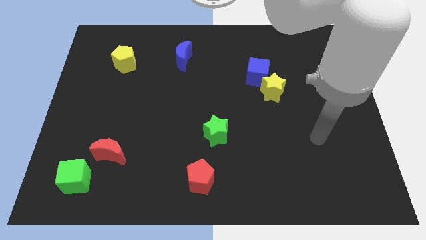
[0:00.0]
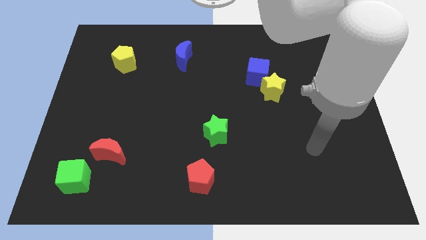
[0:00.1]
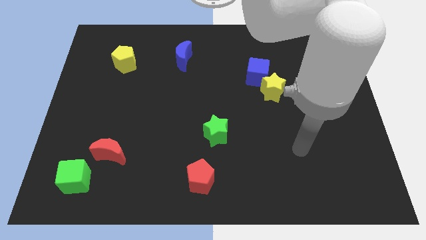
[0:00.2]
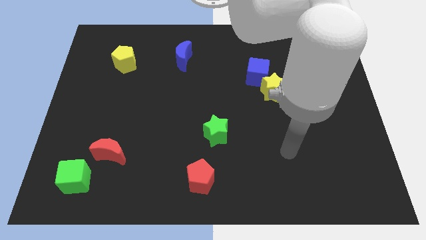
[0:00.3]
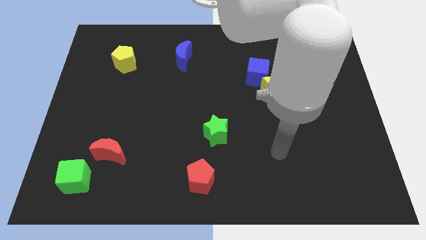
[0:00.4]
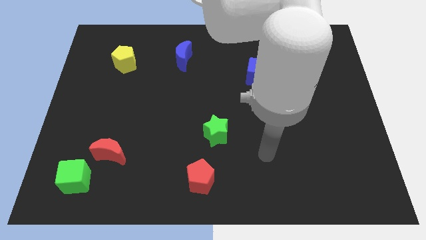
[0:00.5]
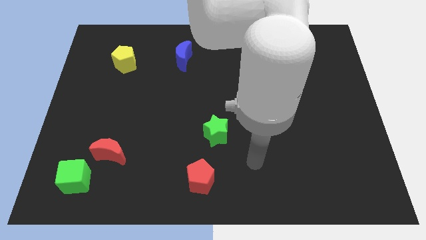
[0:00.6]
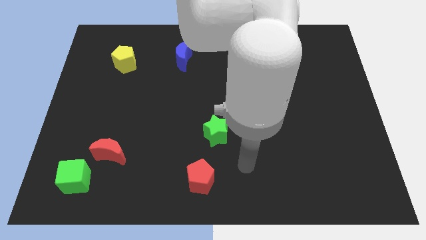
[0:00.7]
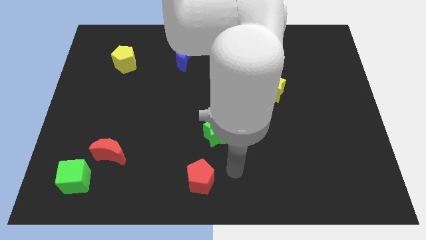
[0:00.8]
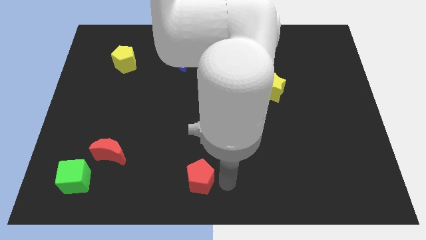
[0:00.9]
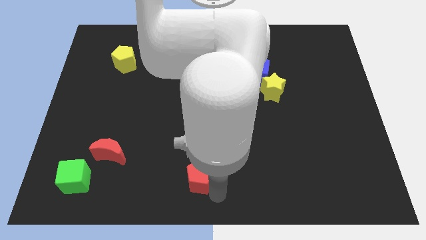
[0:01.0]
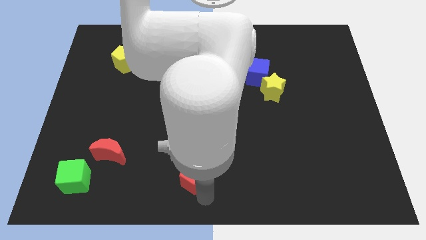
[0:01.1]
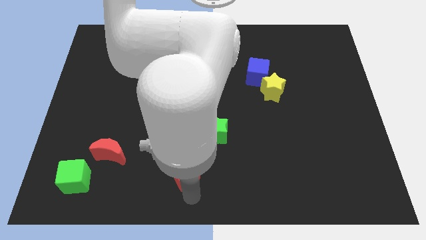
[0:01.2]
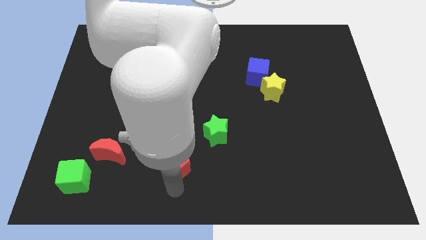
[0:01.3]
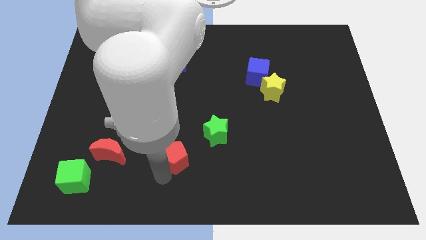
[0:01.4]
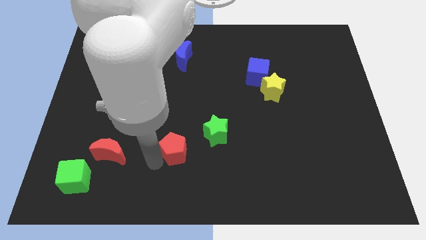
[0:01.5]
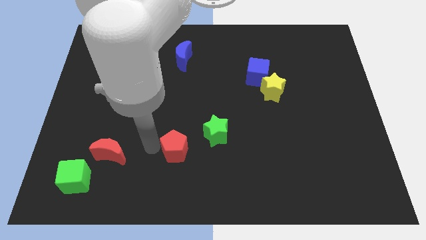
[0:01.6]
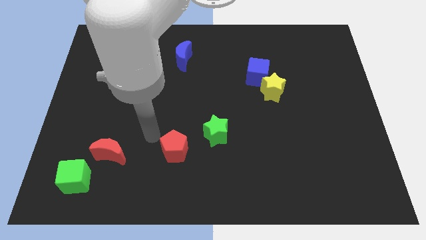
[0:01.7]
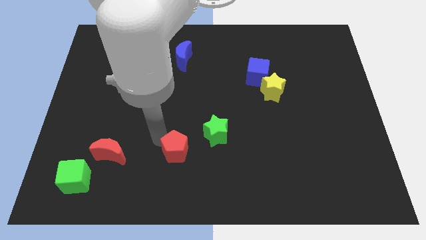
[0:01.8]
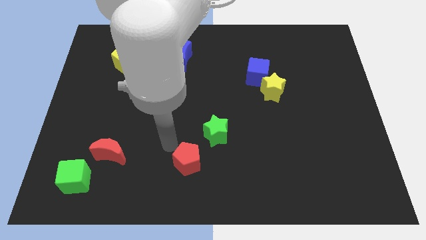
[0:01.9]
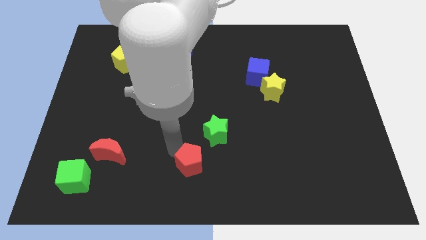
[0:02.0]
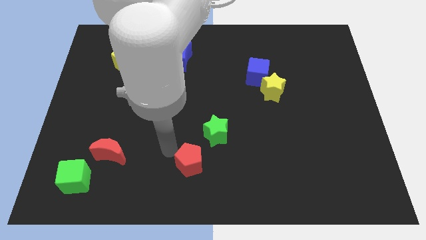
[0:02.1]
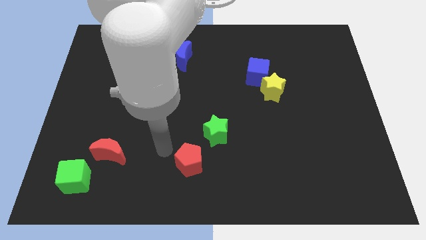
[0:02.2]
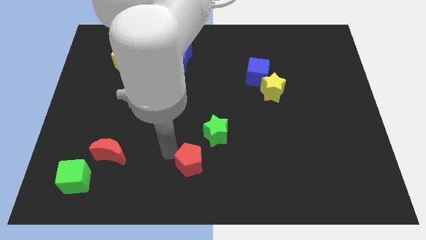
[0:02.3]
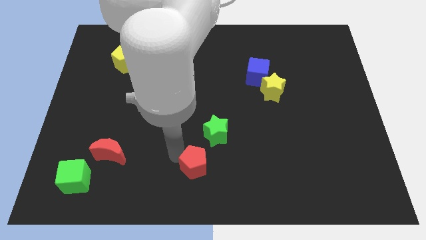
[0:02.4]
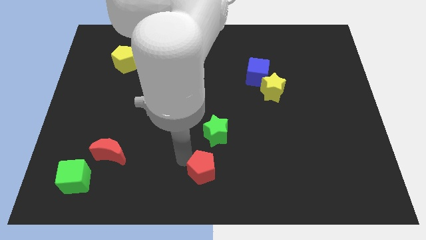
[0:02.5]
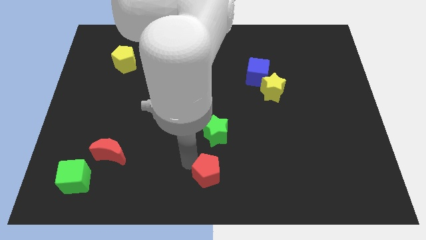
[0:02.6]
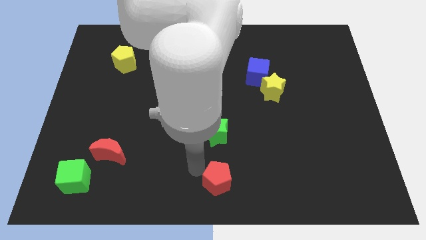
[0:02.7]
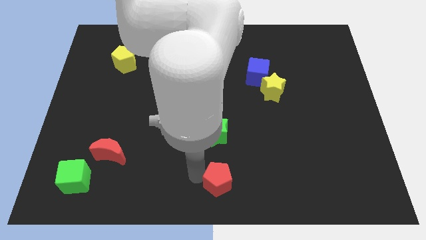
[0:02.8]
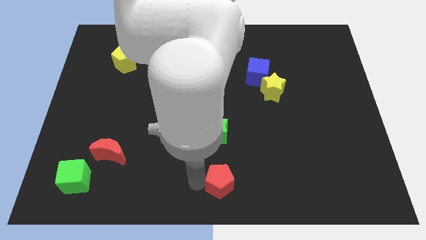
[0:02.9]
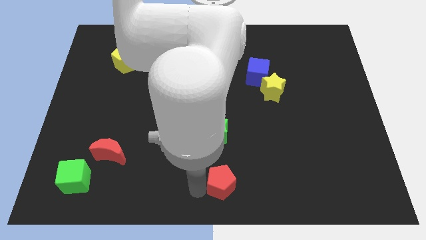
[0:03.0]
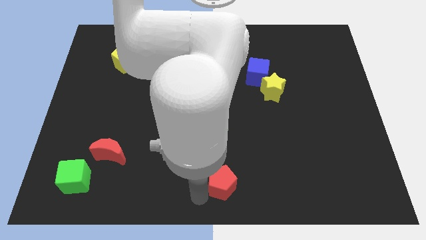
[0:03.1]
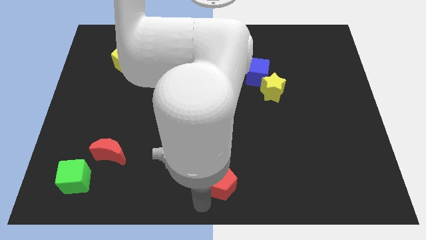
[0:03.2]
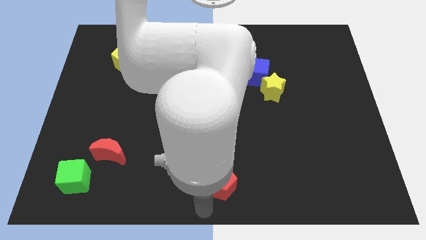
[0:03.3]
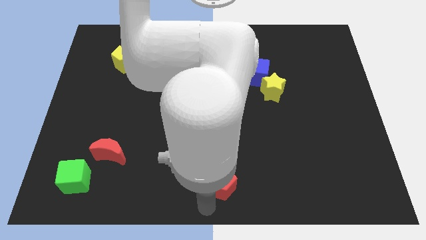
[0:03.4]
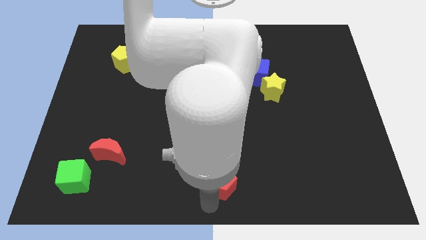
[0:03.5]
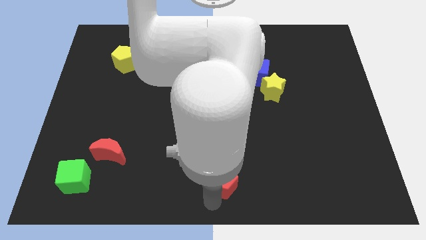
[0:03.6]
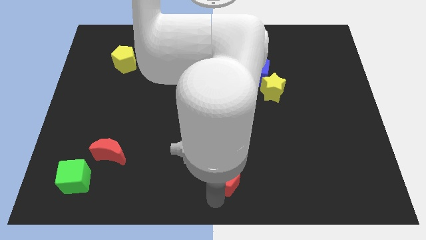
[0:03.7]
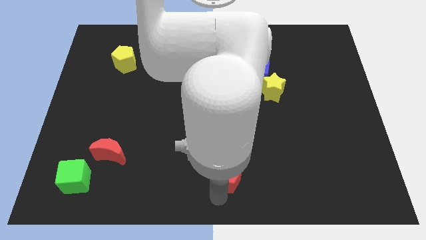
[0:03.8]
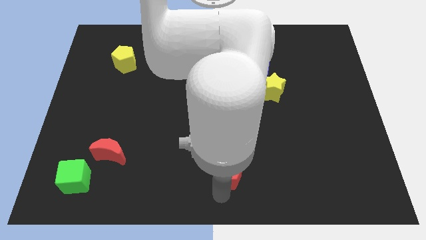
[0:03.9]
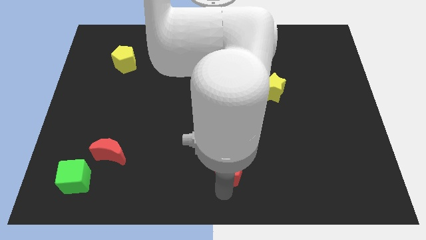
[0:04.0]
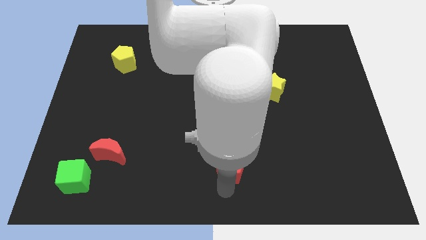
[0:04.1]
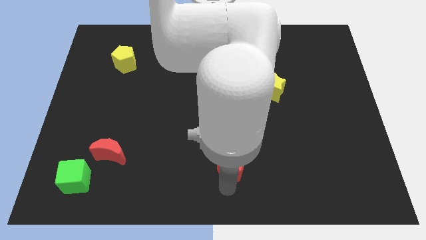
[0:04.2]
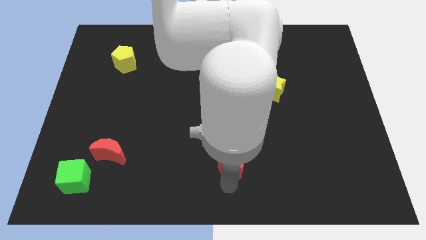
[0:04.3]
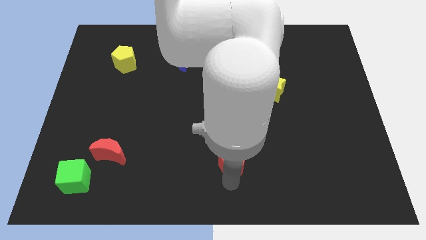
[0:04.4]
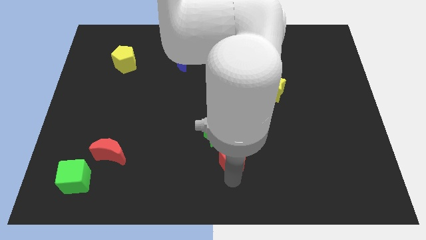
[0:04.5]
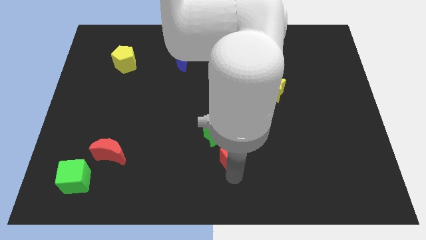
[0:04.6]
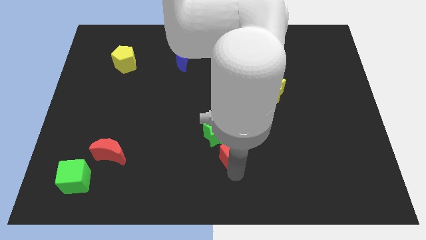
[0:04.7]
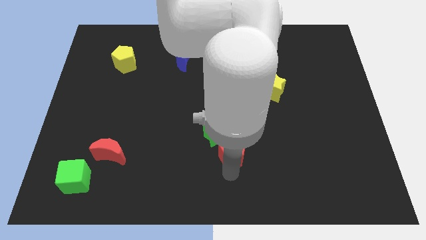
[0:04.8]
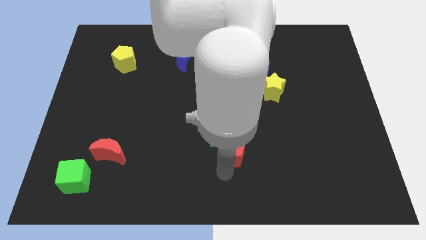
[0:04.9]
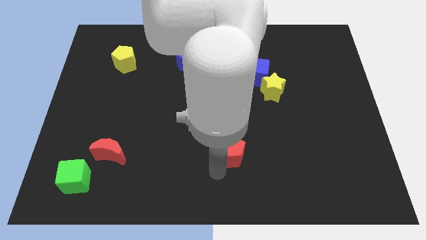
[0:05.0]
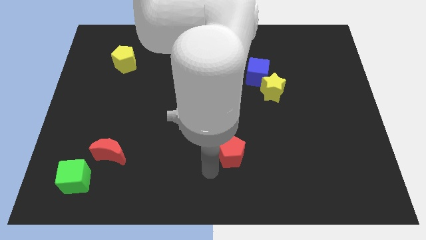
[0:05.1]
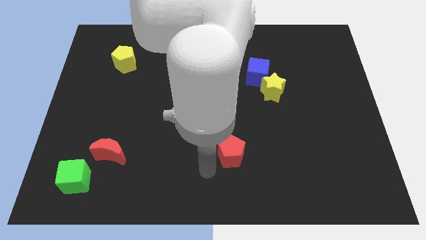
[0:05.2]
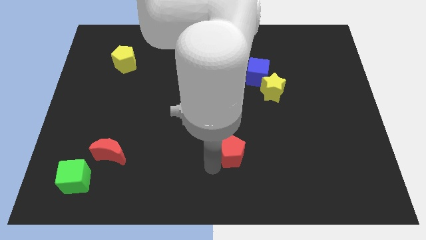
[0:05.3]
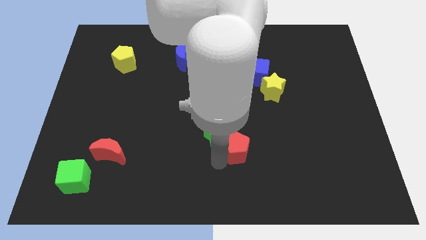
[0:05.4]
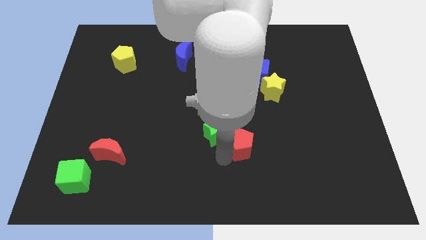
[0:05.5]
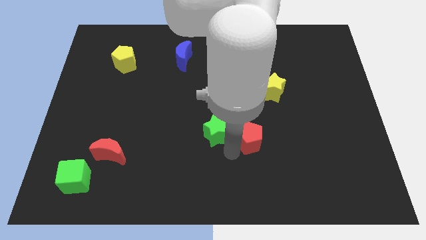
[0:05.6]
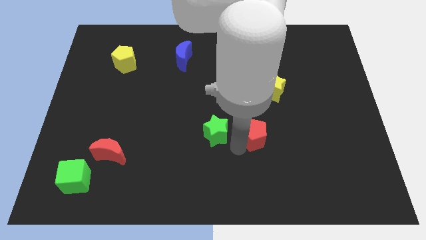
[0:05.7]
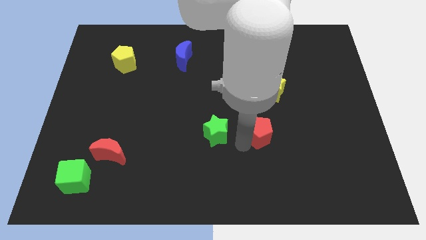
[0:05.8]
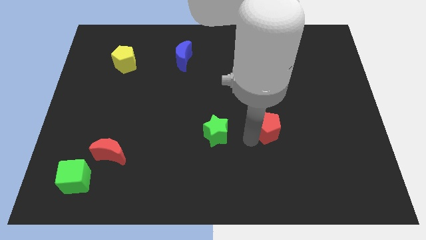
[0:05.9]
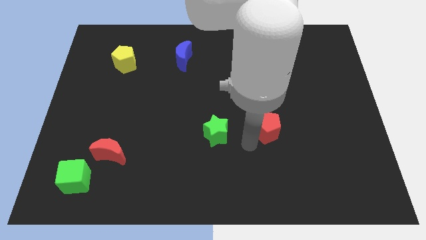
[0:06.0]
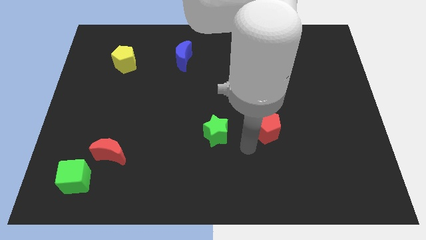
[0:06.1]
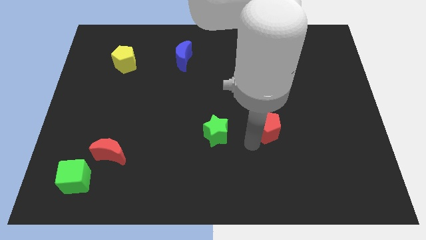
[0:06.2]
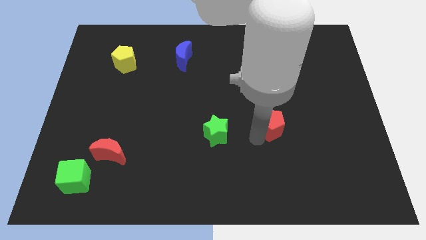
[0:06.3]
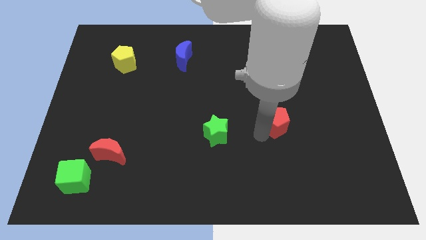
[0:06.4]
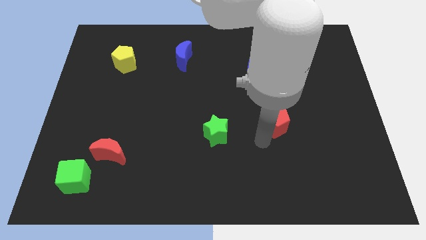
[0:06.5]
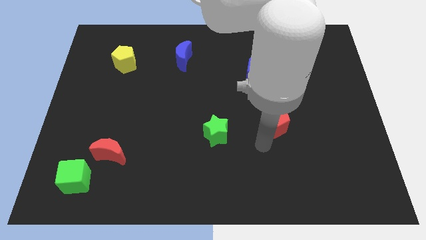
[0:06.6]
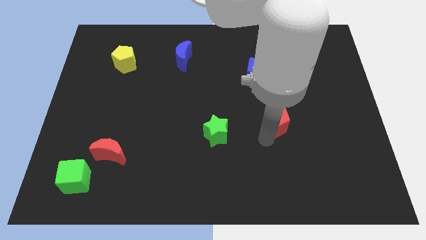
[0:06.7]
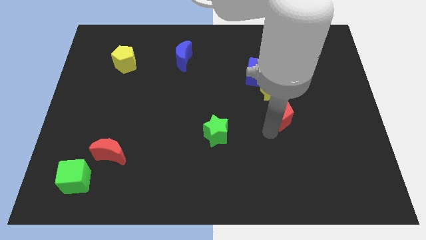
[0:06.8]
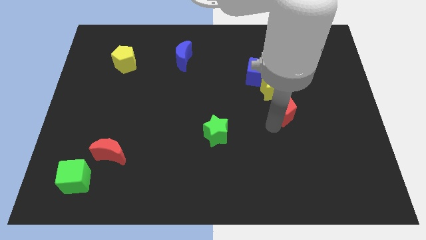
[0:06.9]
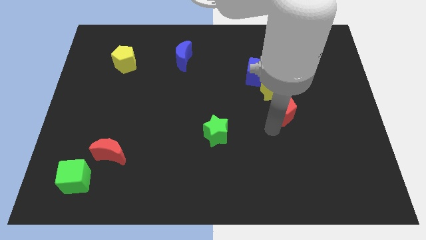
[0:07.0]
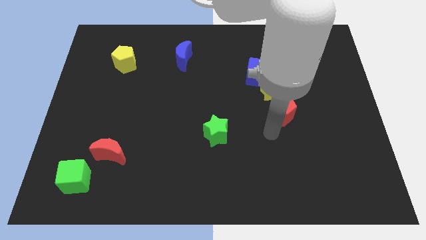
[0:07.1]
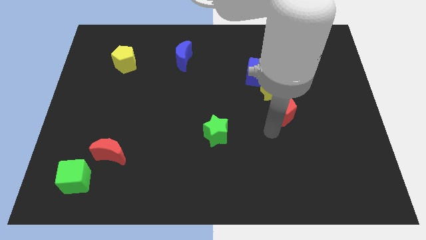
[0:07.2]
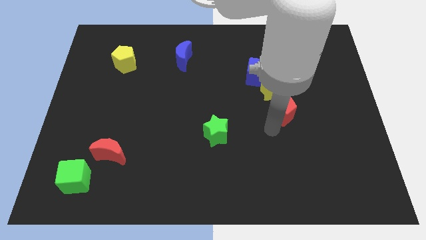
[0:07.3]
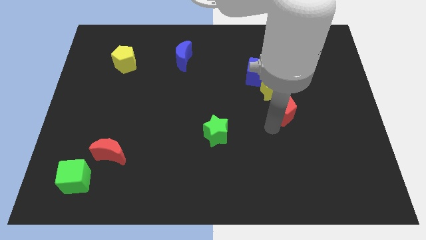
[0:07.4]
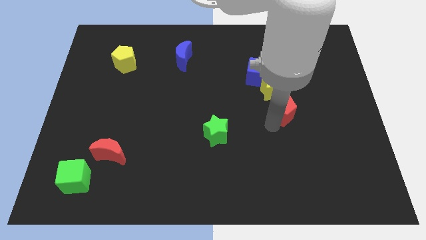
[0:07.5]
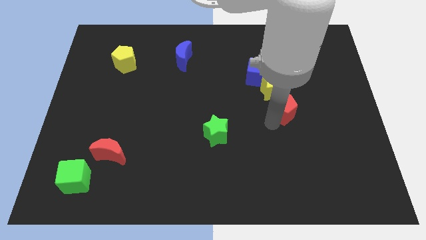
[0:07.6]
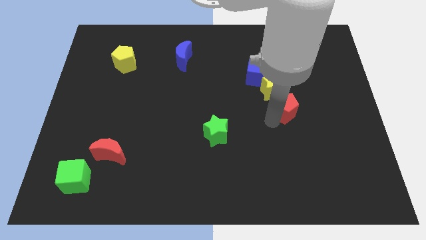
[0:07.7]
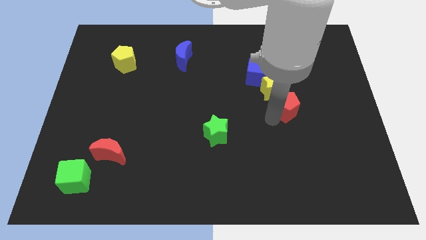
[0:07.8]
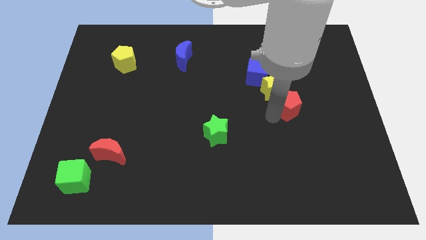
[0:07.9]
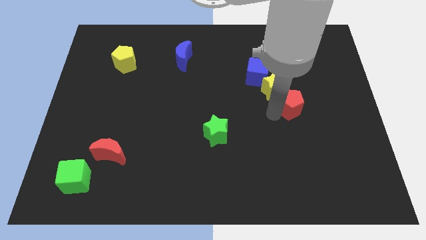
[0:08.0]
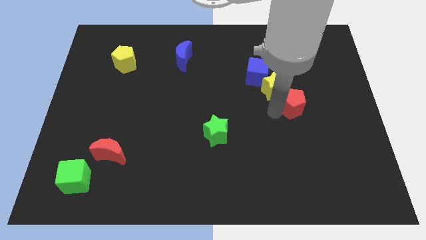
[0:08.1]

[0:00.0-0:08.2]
push the red pentagon right of the yellow star
